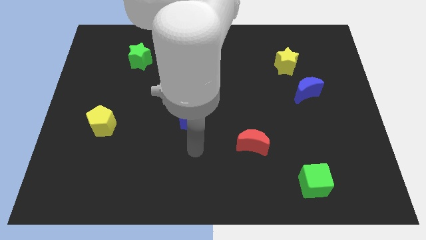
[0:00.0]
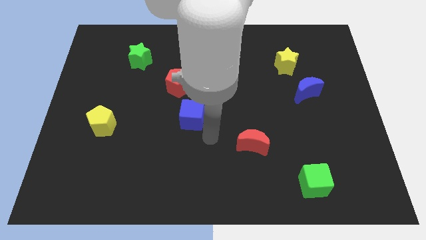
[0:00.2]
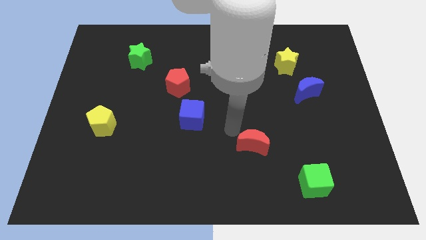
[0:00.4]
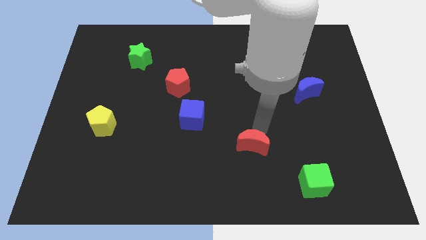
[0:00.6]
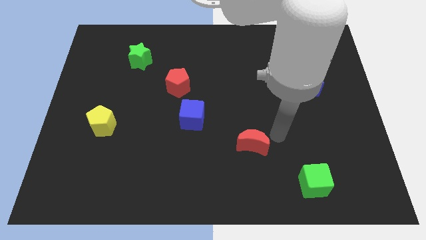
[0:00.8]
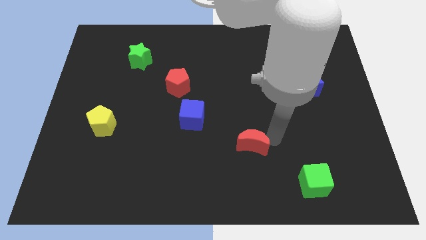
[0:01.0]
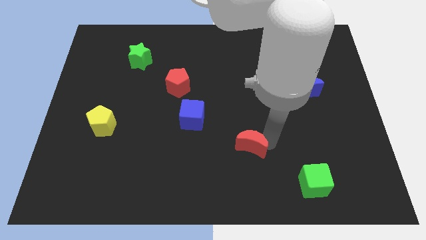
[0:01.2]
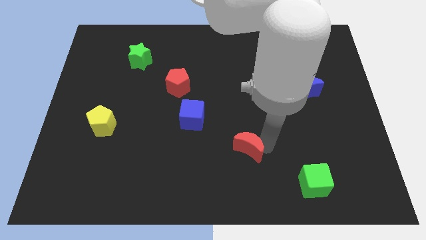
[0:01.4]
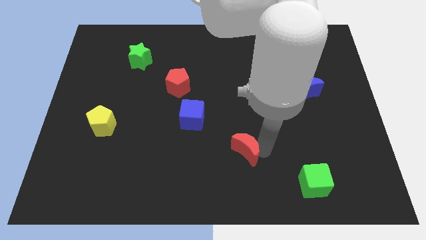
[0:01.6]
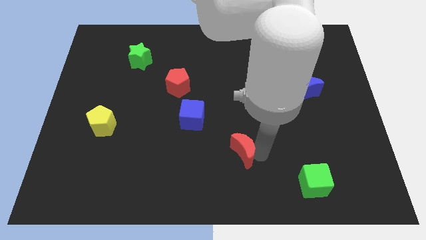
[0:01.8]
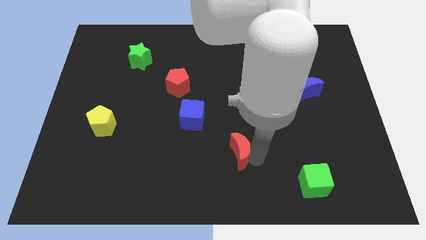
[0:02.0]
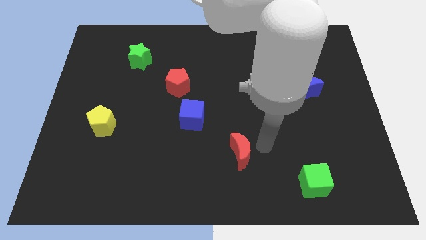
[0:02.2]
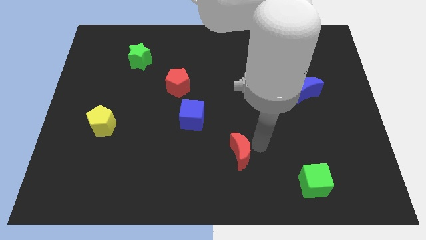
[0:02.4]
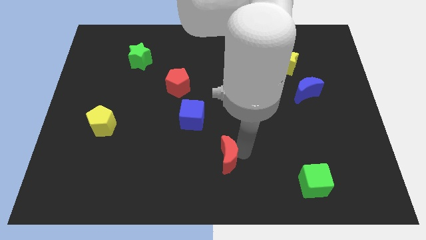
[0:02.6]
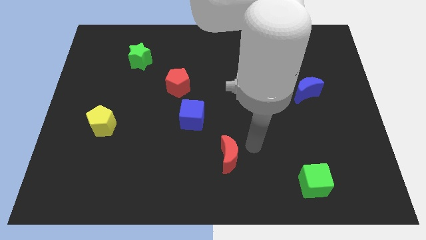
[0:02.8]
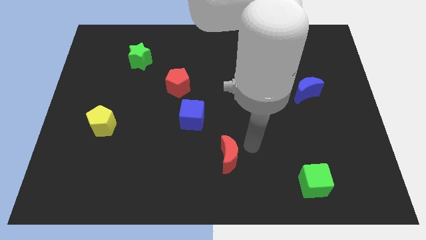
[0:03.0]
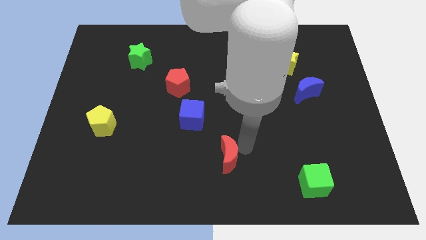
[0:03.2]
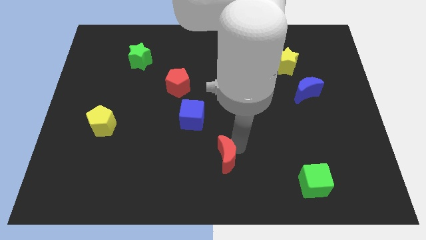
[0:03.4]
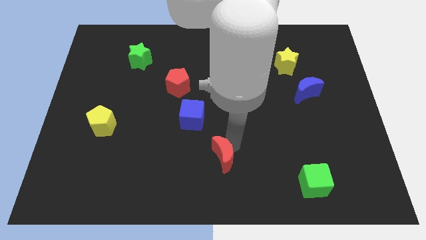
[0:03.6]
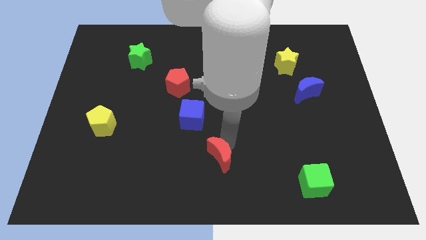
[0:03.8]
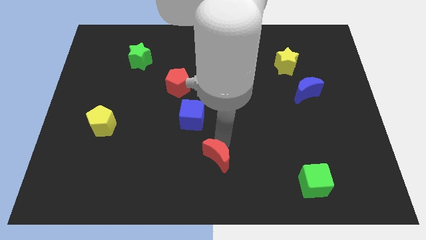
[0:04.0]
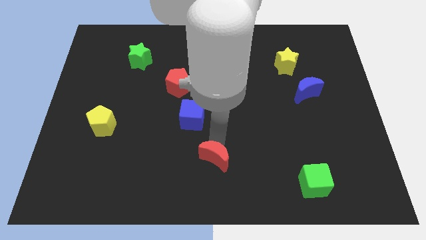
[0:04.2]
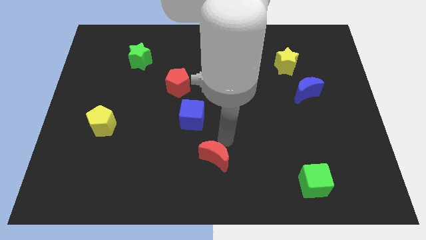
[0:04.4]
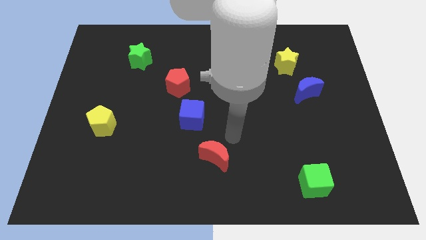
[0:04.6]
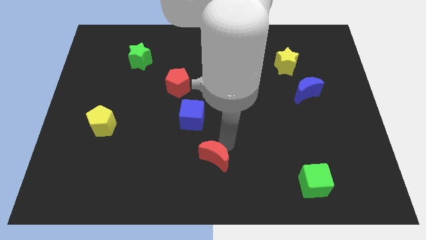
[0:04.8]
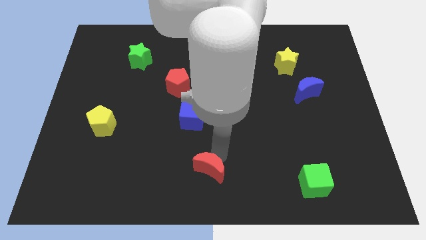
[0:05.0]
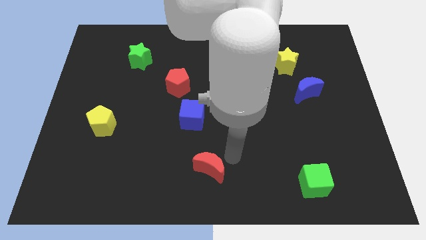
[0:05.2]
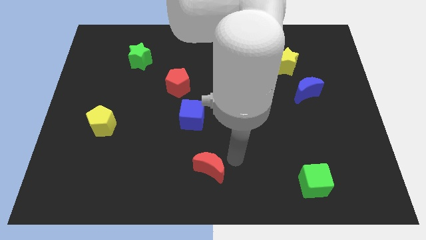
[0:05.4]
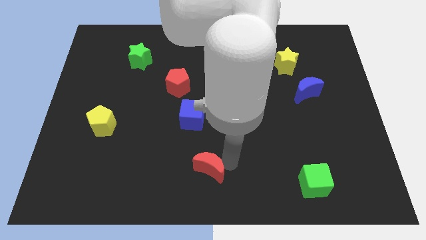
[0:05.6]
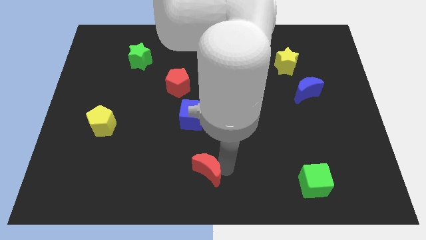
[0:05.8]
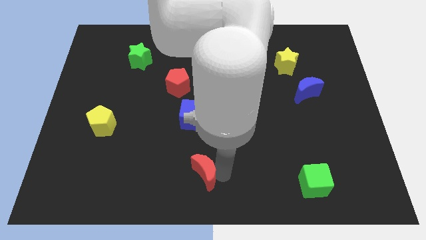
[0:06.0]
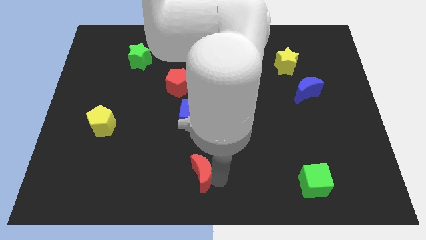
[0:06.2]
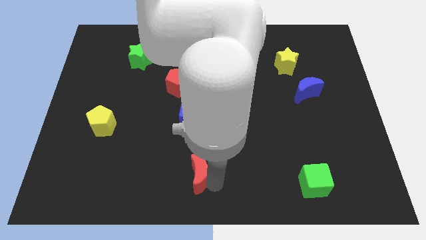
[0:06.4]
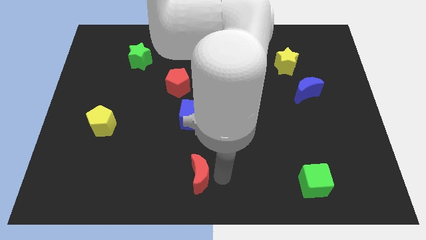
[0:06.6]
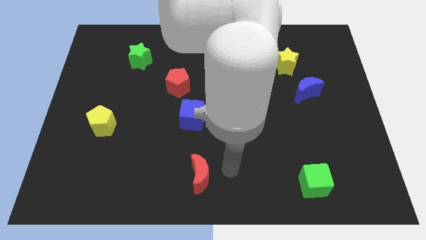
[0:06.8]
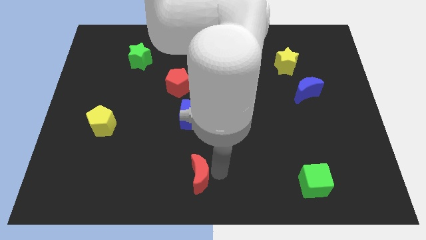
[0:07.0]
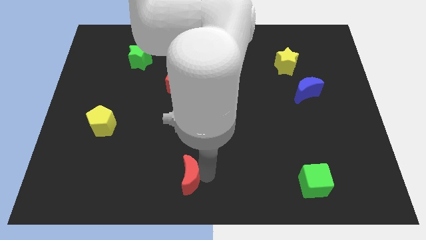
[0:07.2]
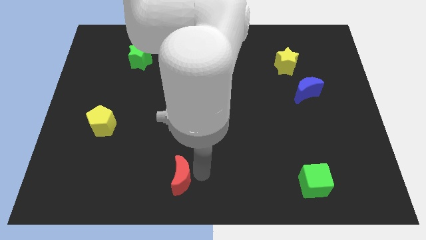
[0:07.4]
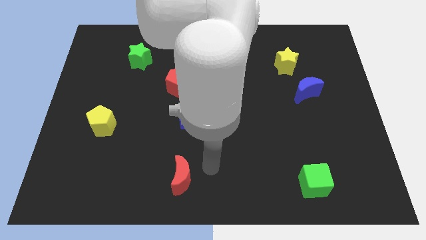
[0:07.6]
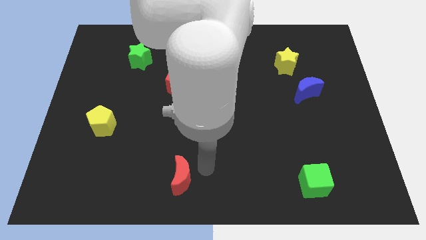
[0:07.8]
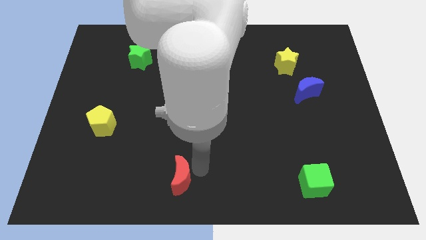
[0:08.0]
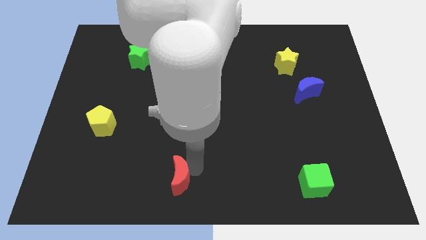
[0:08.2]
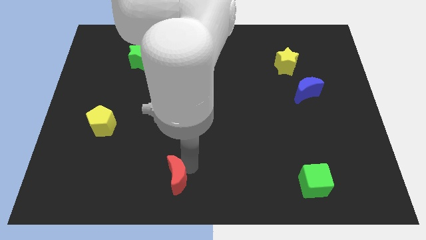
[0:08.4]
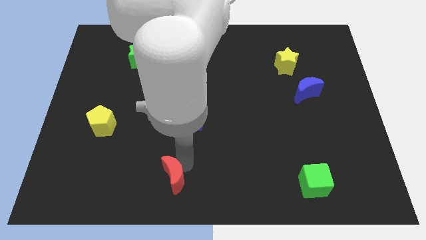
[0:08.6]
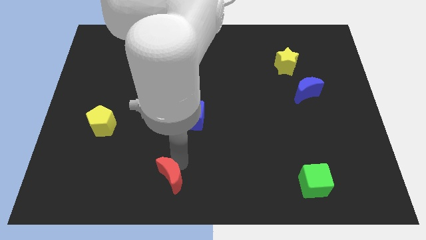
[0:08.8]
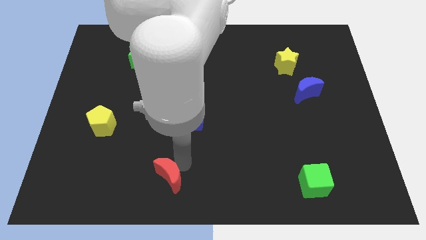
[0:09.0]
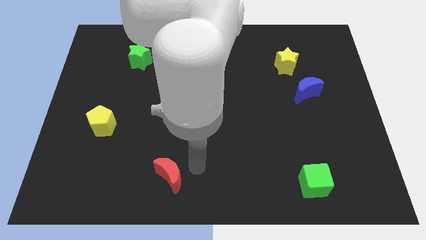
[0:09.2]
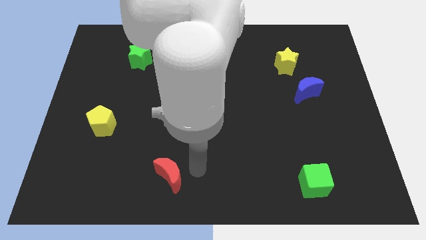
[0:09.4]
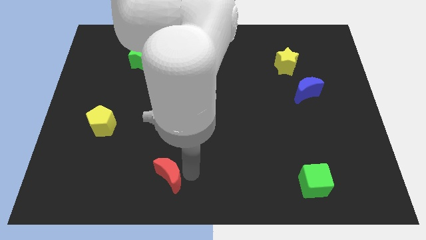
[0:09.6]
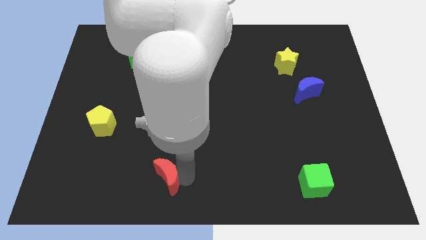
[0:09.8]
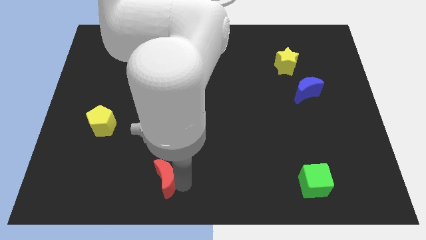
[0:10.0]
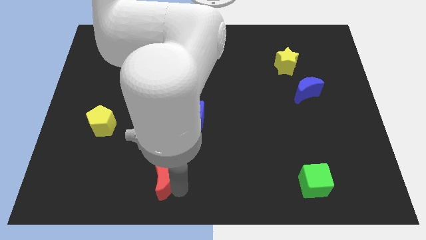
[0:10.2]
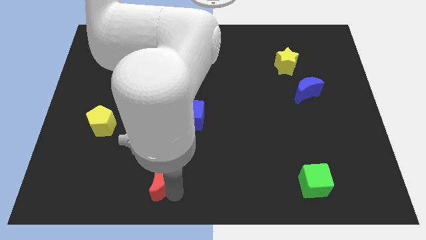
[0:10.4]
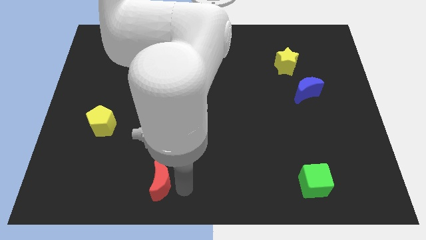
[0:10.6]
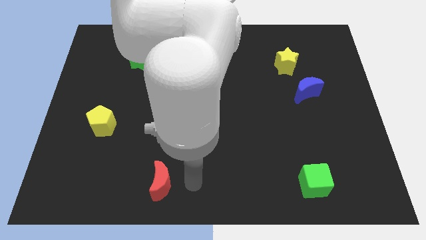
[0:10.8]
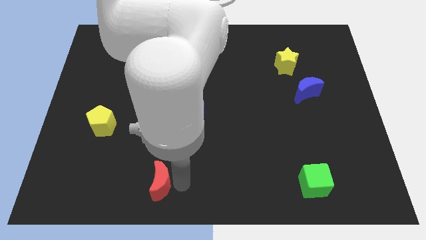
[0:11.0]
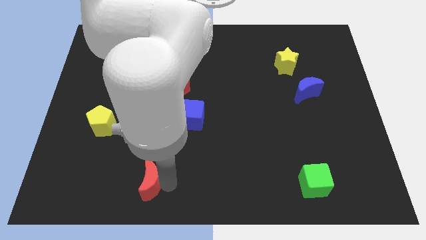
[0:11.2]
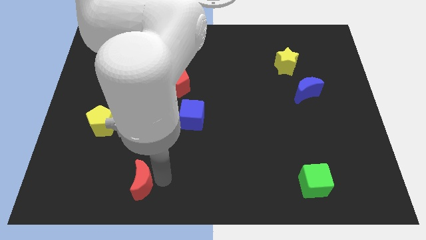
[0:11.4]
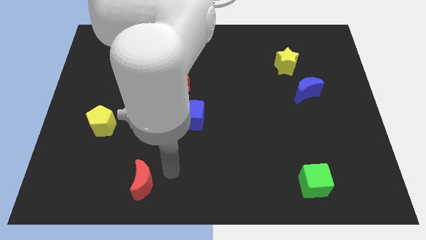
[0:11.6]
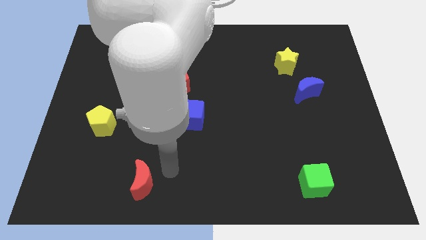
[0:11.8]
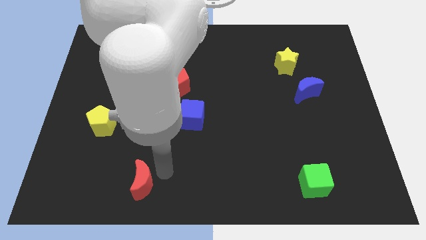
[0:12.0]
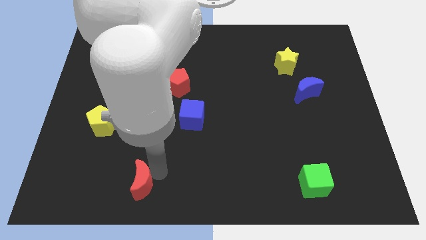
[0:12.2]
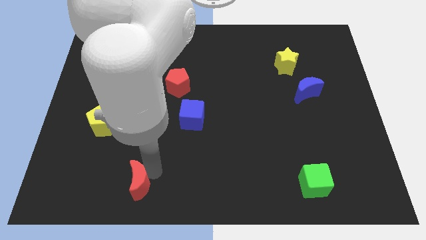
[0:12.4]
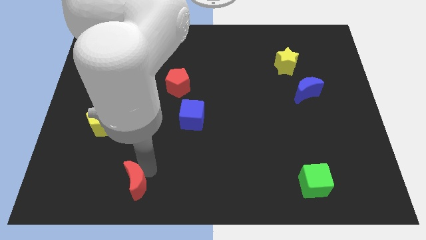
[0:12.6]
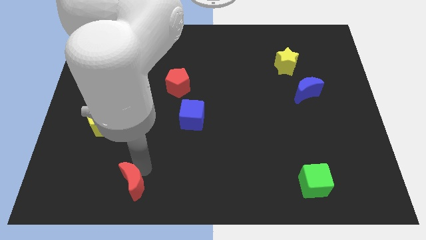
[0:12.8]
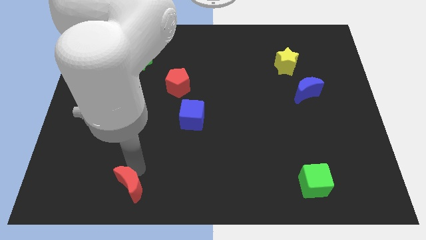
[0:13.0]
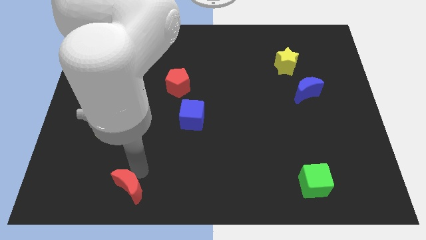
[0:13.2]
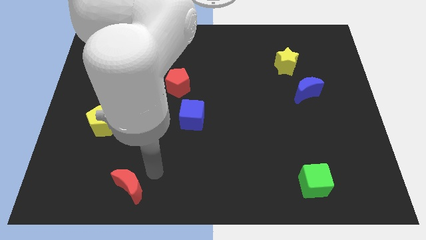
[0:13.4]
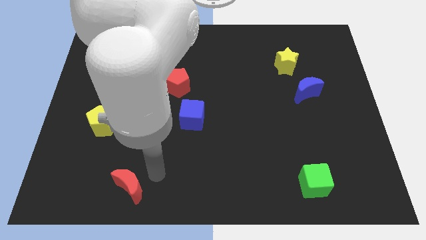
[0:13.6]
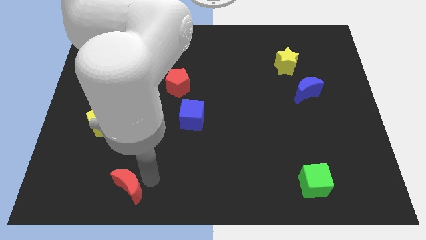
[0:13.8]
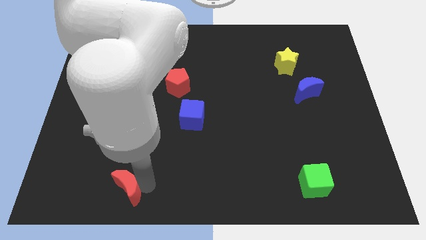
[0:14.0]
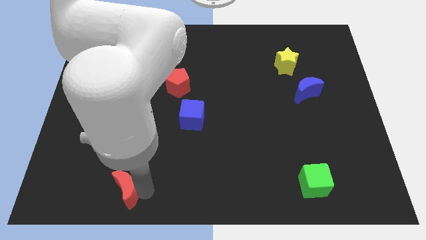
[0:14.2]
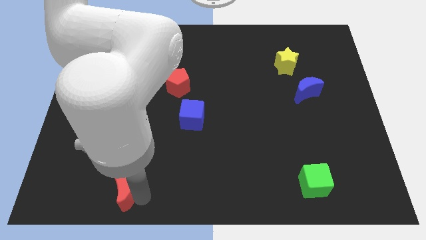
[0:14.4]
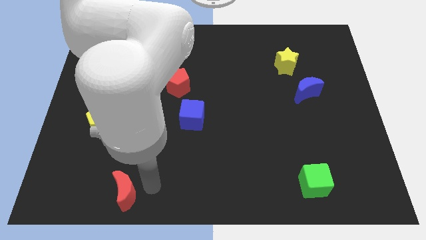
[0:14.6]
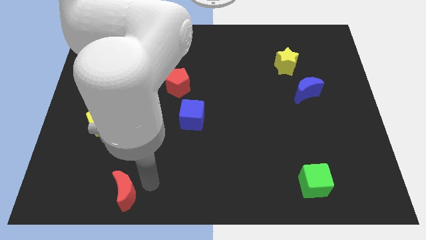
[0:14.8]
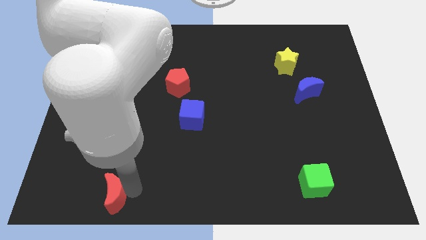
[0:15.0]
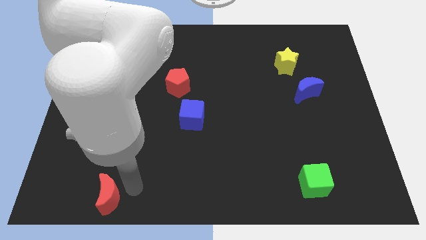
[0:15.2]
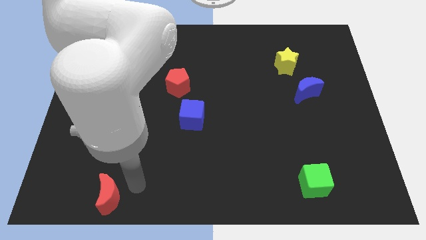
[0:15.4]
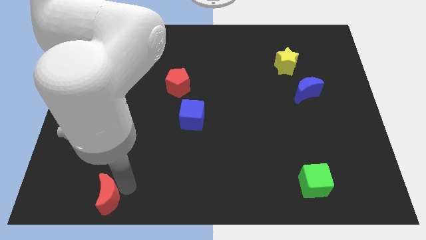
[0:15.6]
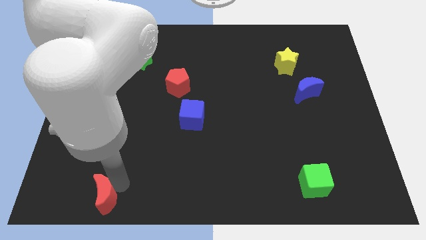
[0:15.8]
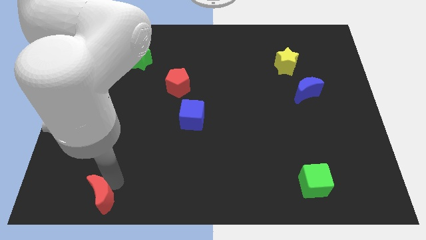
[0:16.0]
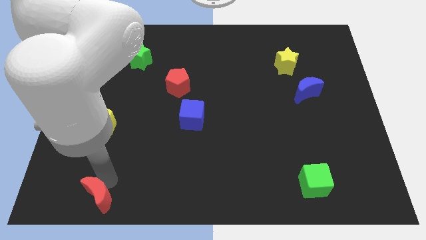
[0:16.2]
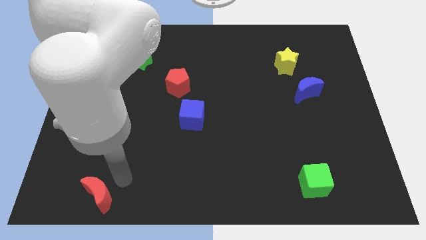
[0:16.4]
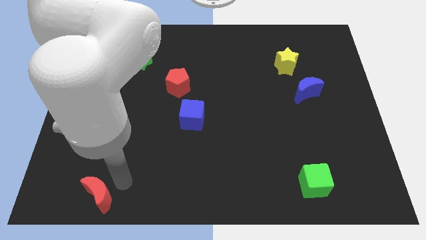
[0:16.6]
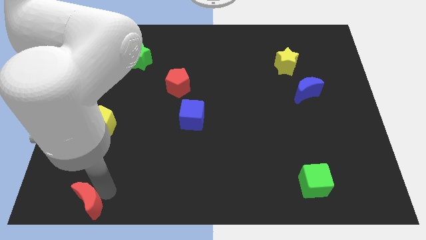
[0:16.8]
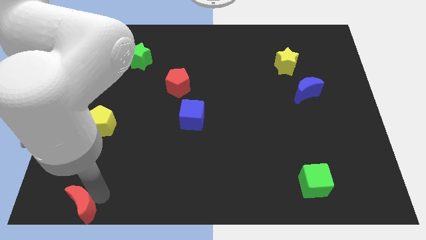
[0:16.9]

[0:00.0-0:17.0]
slide the red moon to the bottom left of the board
